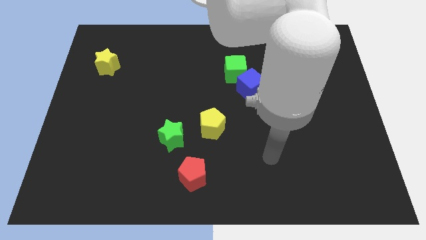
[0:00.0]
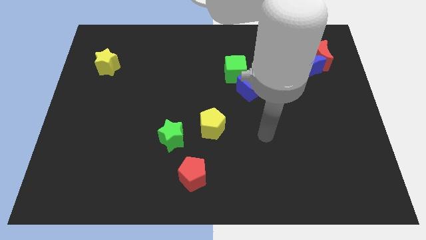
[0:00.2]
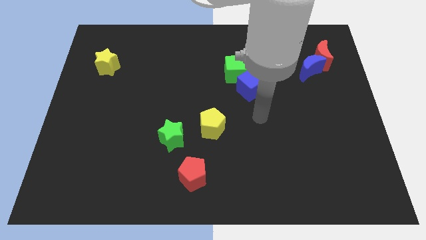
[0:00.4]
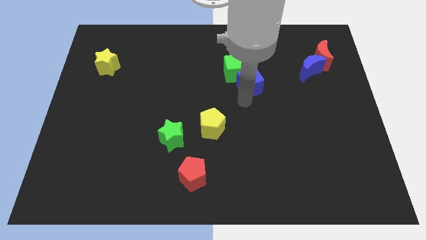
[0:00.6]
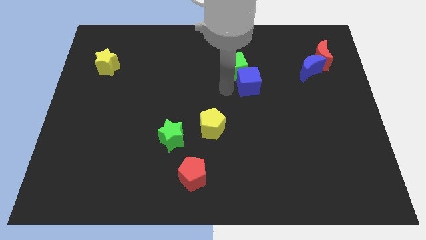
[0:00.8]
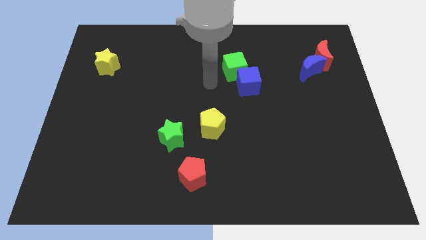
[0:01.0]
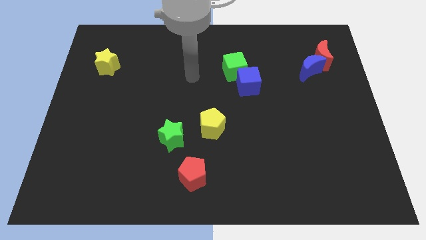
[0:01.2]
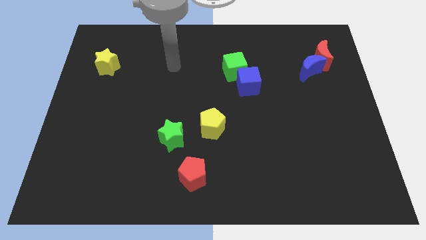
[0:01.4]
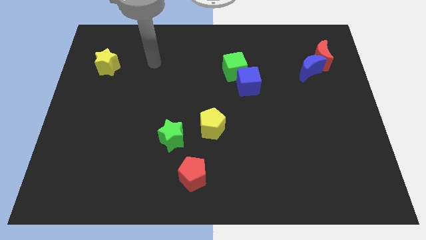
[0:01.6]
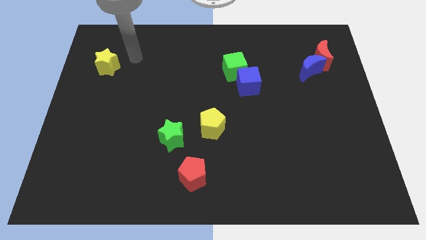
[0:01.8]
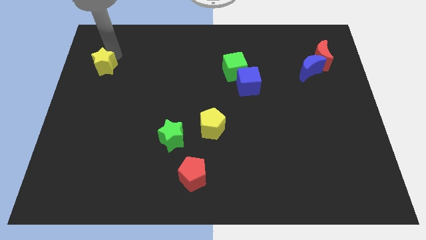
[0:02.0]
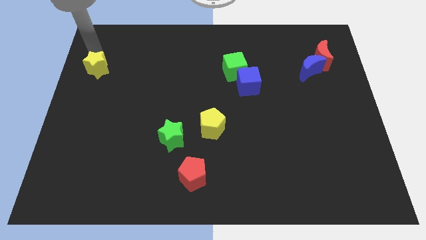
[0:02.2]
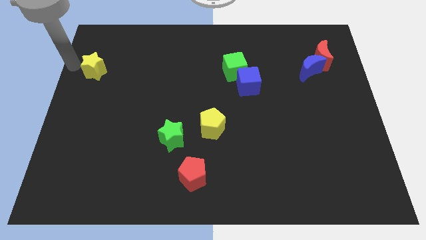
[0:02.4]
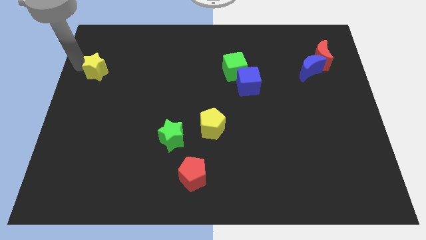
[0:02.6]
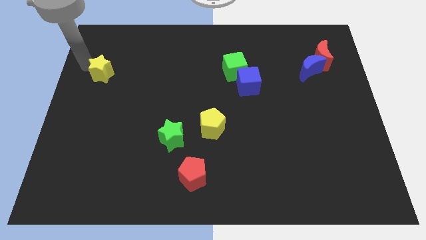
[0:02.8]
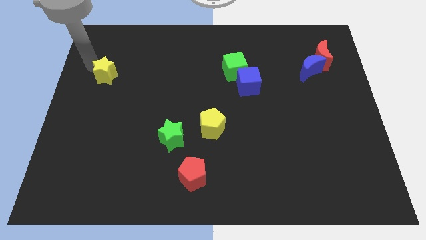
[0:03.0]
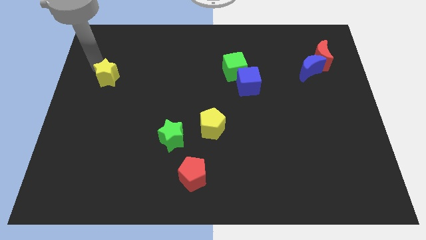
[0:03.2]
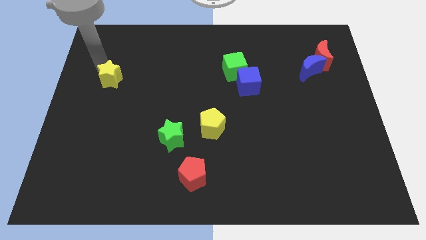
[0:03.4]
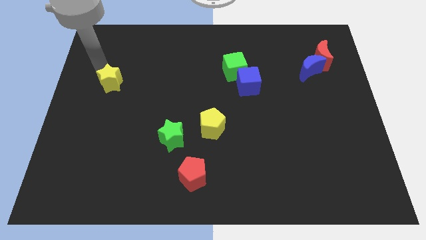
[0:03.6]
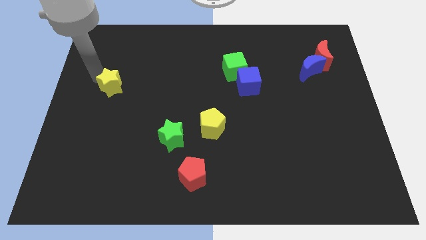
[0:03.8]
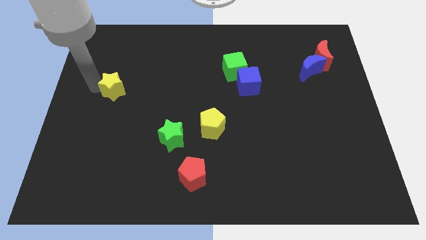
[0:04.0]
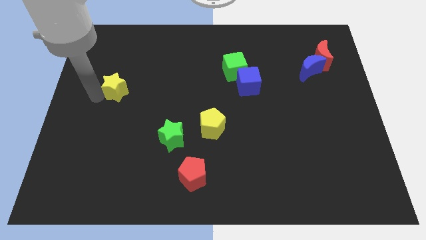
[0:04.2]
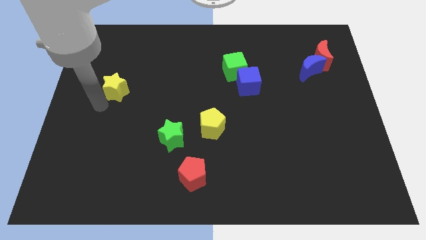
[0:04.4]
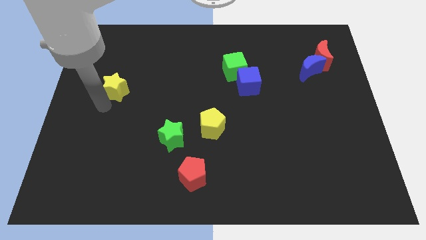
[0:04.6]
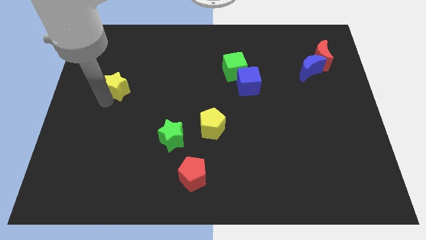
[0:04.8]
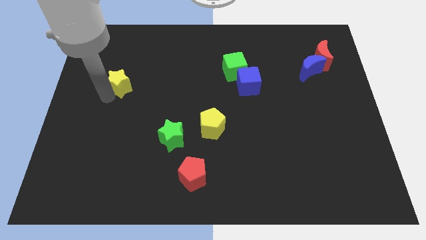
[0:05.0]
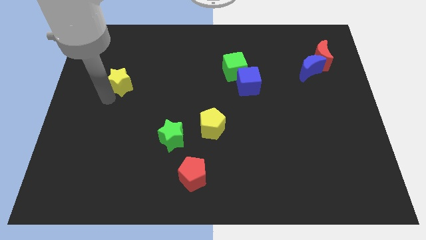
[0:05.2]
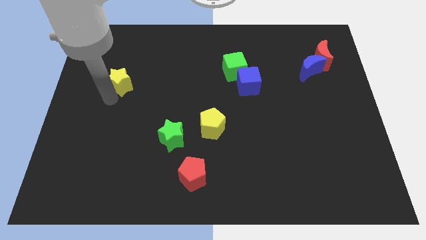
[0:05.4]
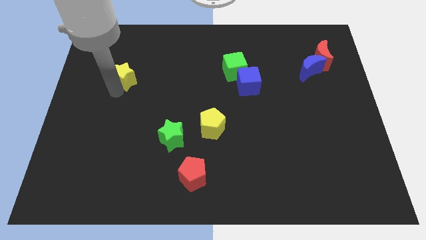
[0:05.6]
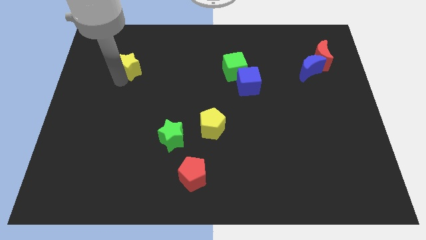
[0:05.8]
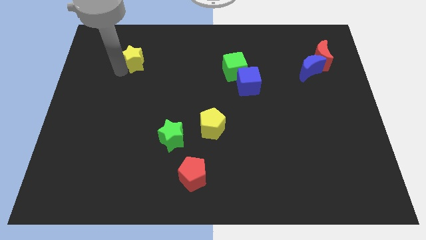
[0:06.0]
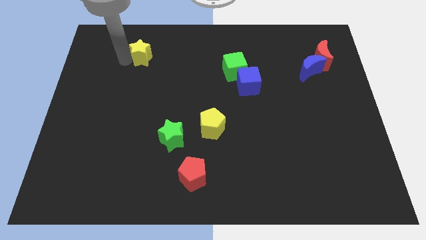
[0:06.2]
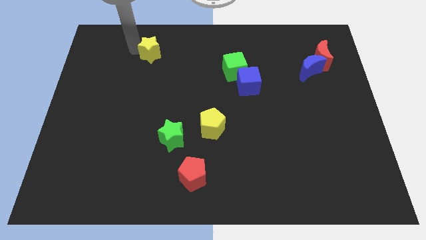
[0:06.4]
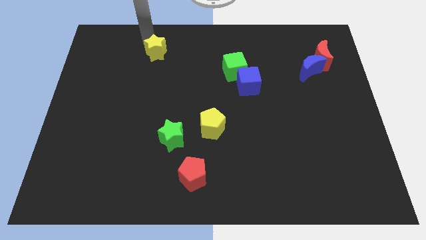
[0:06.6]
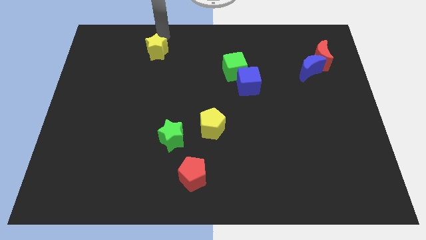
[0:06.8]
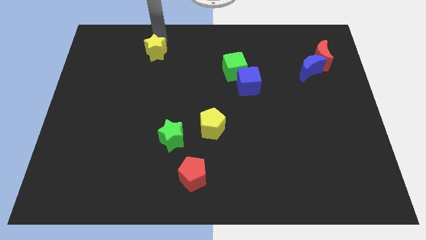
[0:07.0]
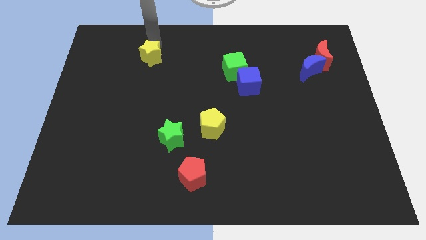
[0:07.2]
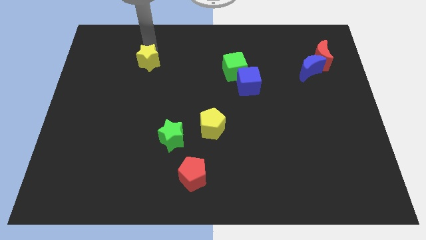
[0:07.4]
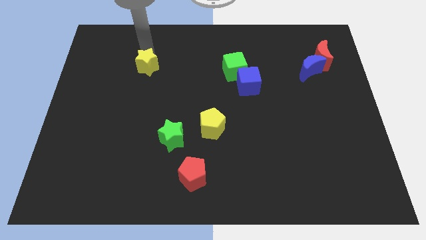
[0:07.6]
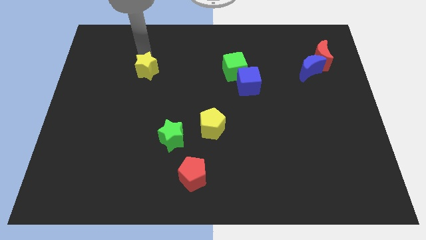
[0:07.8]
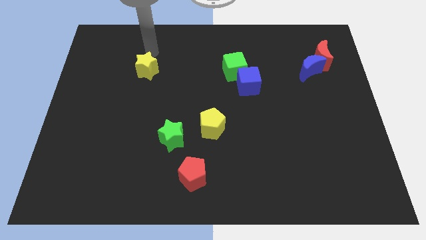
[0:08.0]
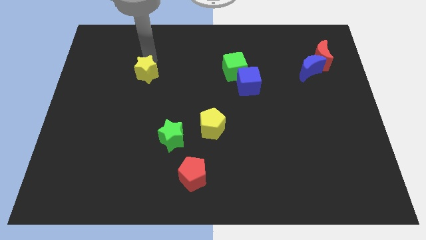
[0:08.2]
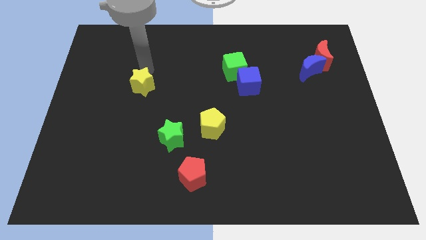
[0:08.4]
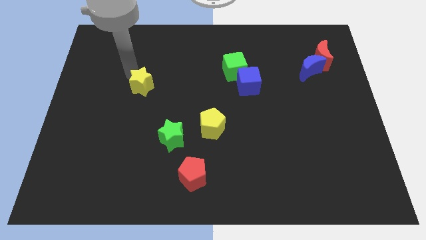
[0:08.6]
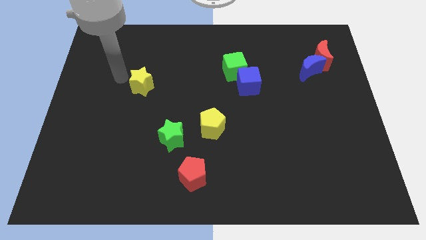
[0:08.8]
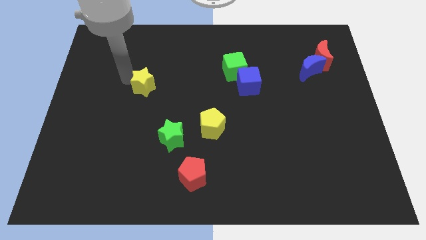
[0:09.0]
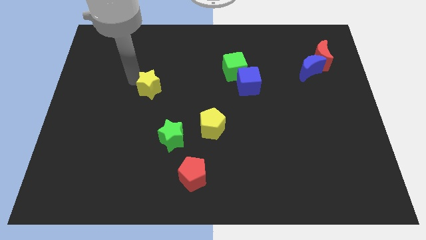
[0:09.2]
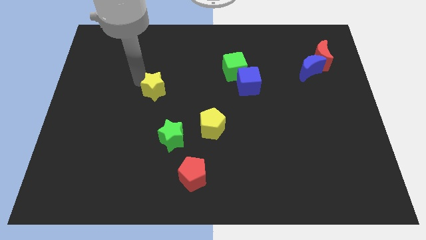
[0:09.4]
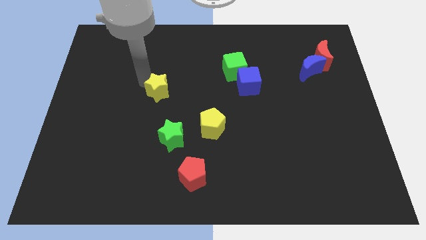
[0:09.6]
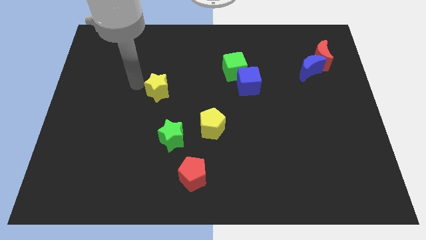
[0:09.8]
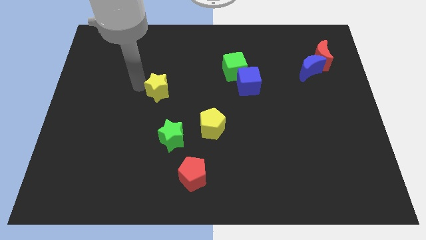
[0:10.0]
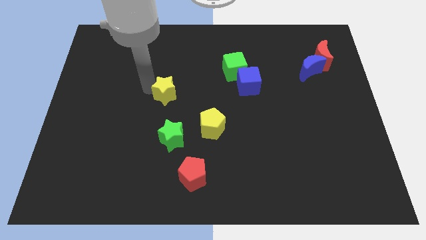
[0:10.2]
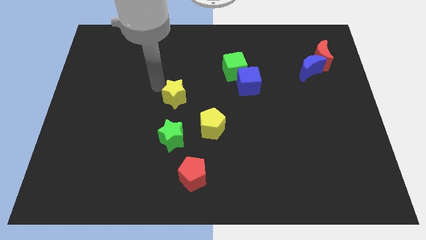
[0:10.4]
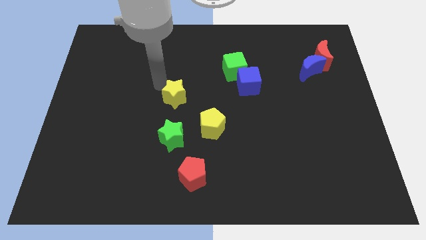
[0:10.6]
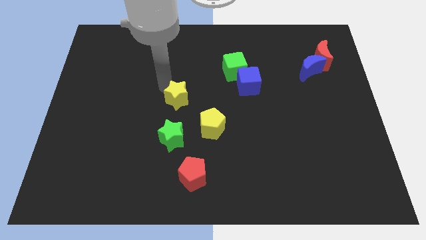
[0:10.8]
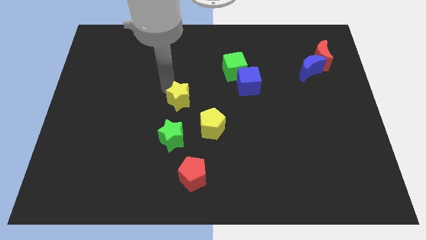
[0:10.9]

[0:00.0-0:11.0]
move the yellow star down and right

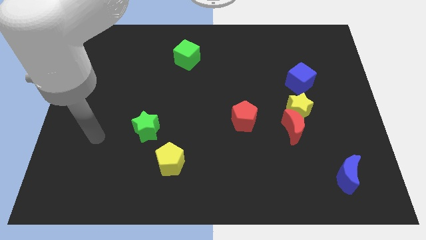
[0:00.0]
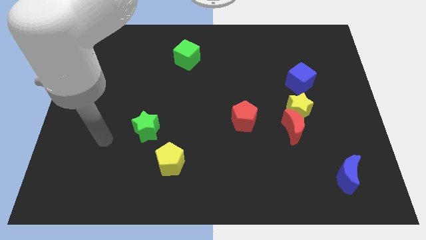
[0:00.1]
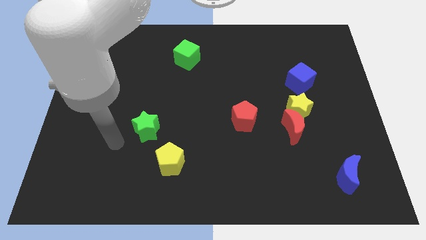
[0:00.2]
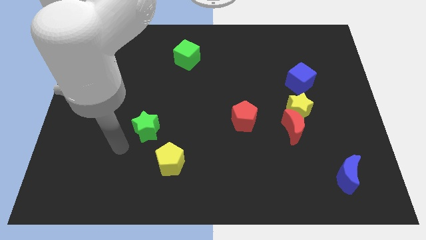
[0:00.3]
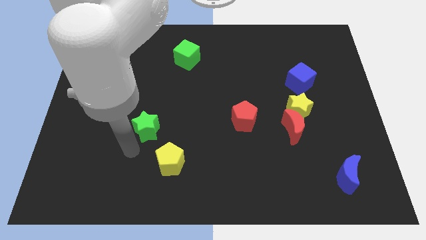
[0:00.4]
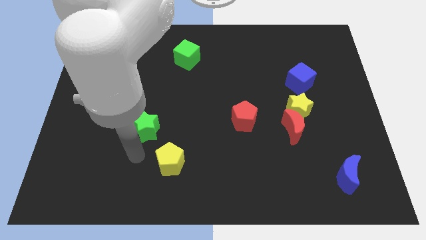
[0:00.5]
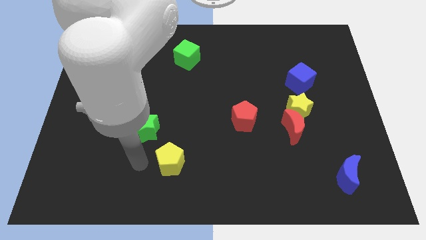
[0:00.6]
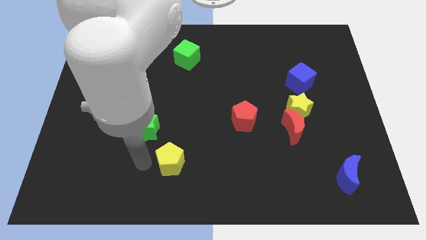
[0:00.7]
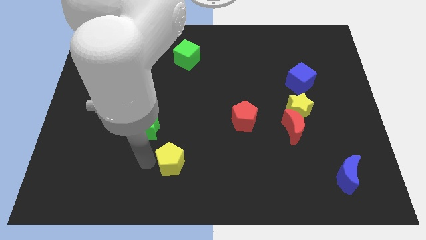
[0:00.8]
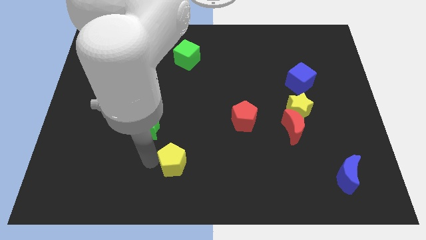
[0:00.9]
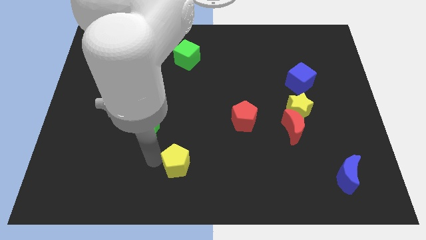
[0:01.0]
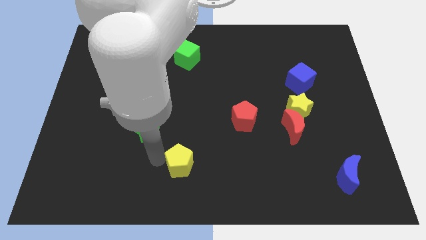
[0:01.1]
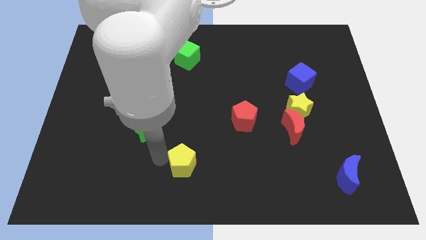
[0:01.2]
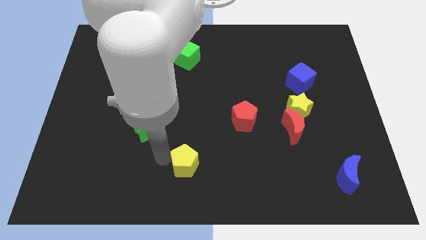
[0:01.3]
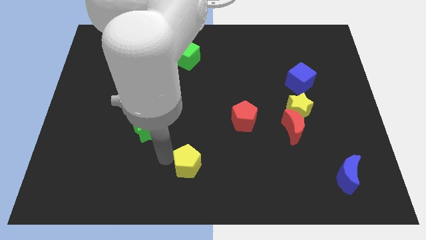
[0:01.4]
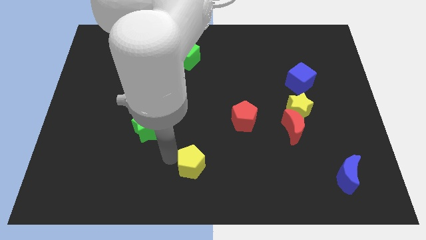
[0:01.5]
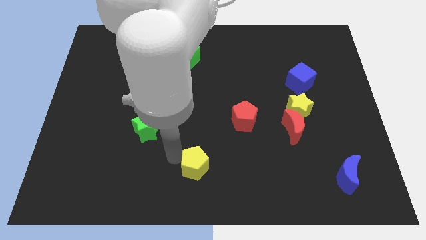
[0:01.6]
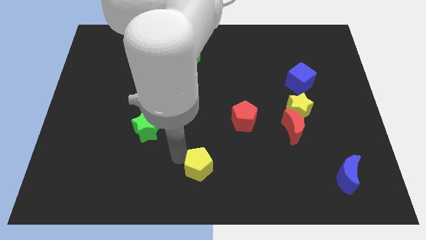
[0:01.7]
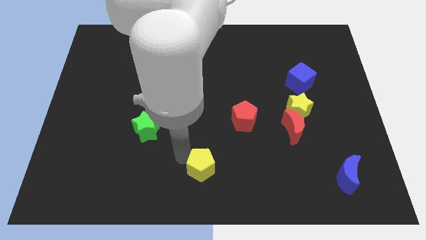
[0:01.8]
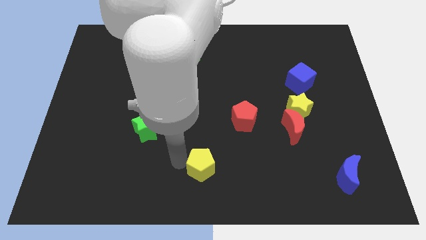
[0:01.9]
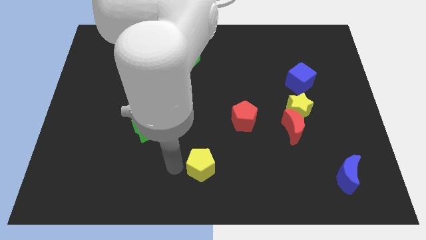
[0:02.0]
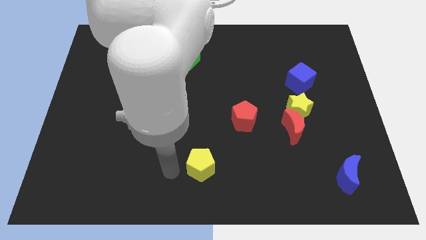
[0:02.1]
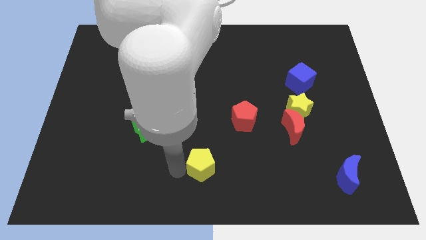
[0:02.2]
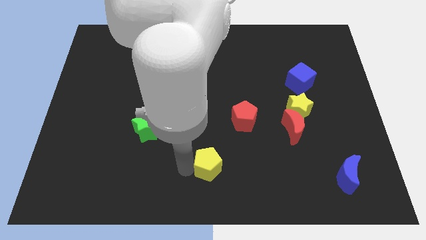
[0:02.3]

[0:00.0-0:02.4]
slide the yellow pentagon somewhat right

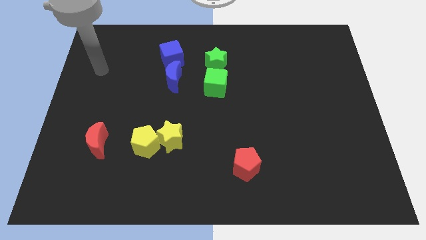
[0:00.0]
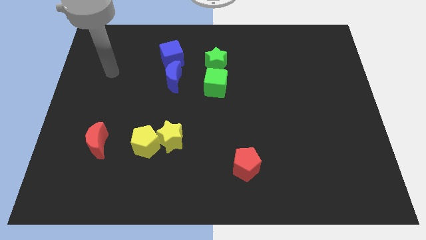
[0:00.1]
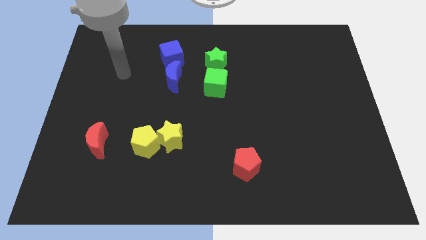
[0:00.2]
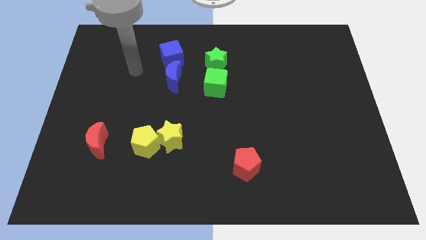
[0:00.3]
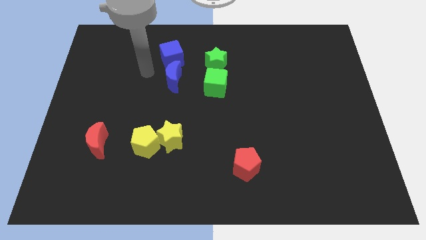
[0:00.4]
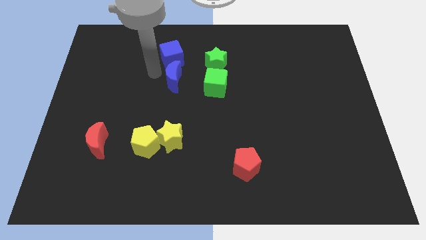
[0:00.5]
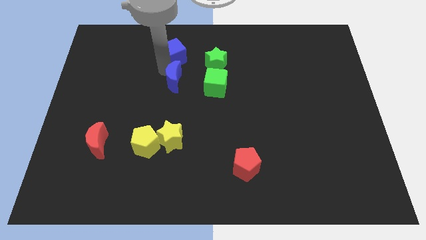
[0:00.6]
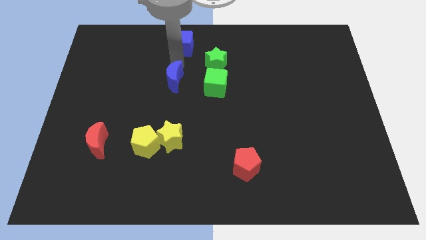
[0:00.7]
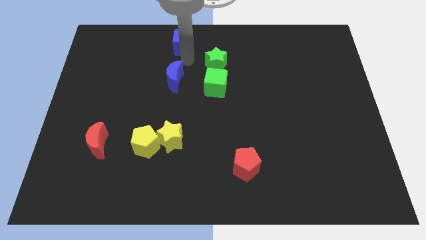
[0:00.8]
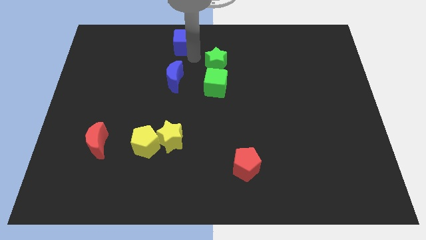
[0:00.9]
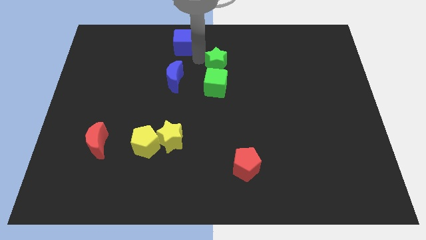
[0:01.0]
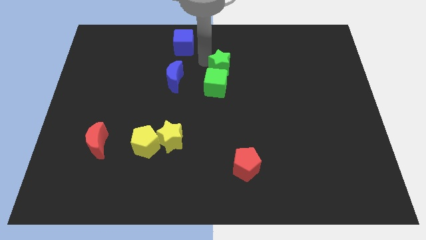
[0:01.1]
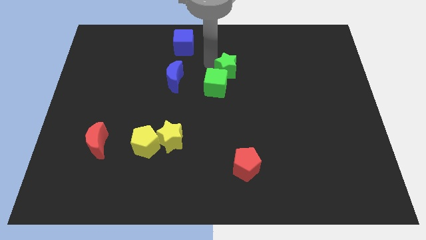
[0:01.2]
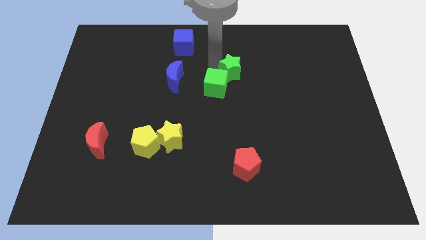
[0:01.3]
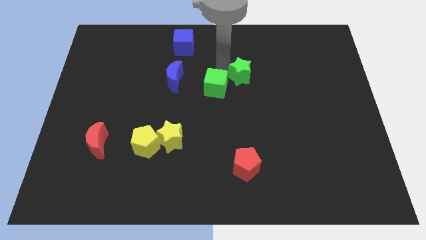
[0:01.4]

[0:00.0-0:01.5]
slightly push the green star down and right diagonally
